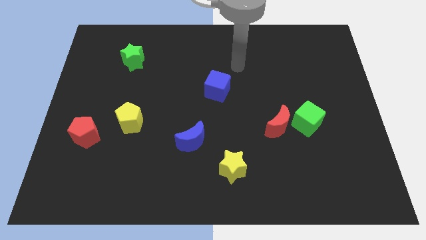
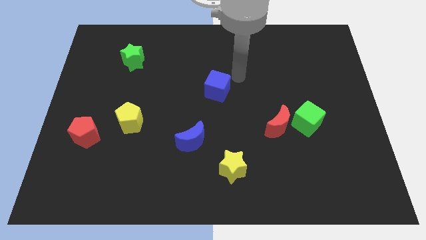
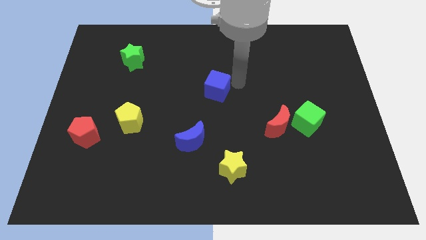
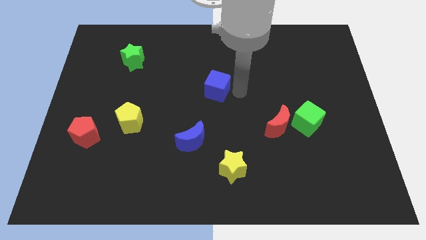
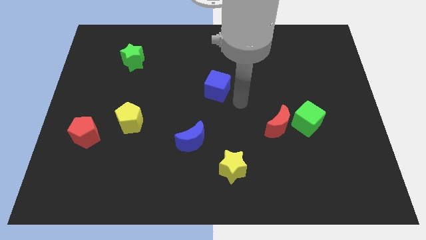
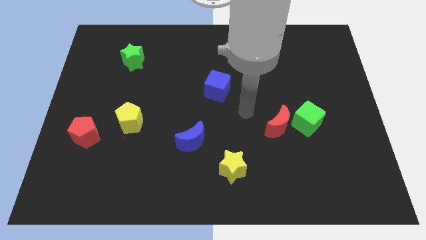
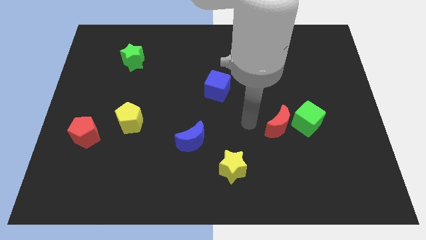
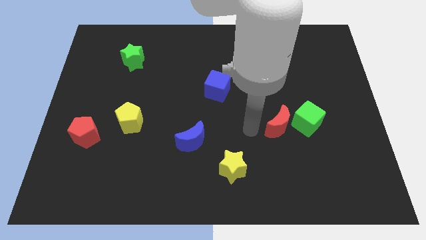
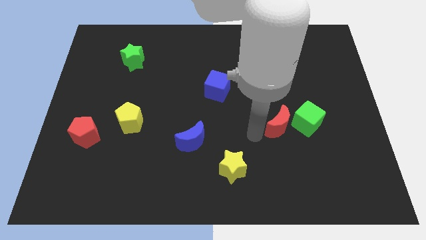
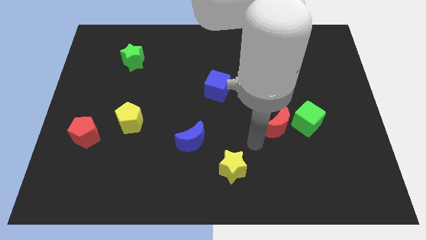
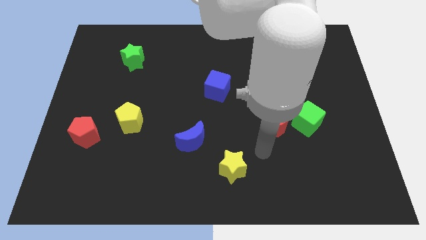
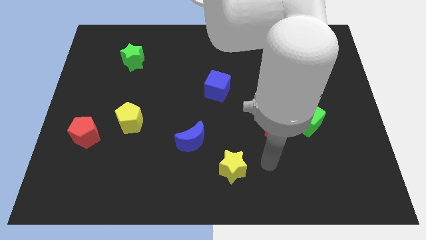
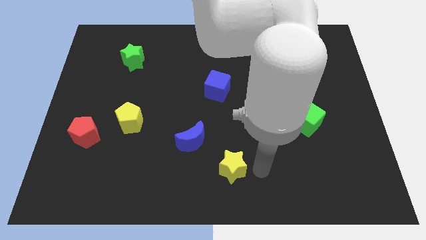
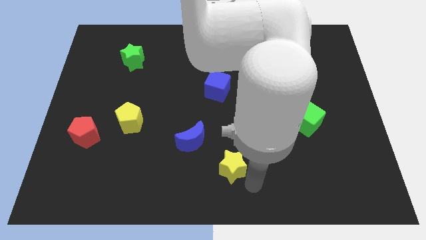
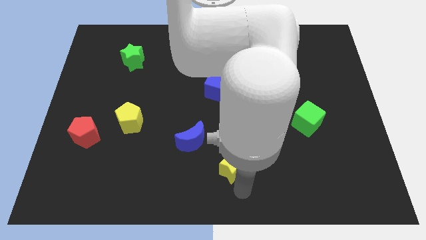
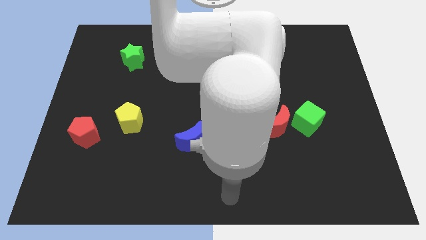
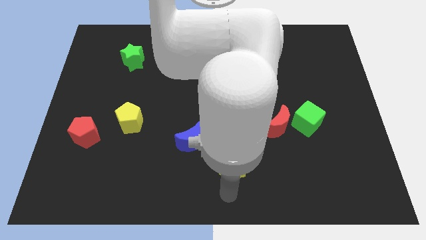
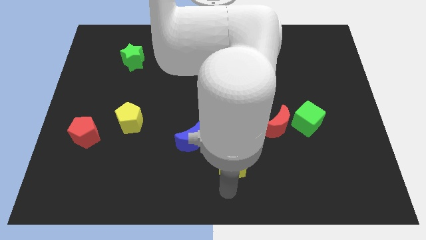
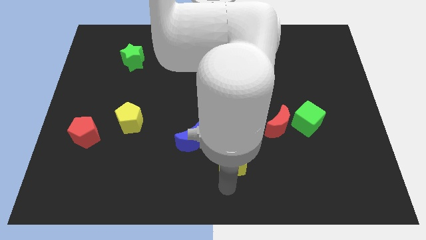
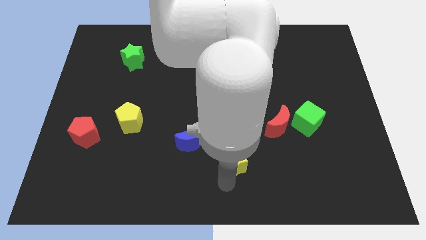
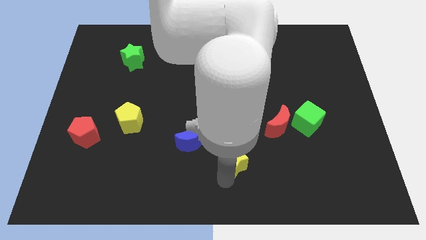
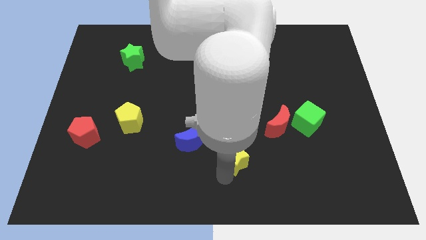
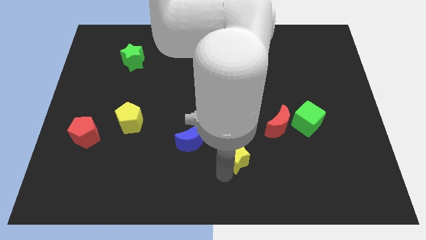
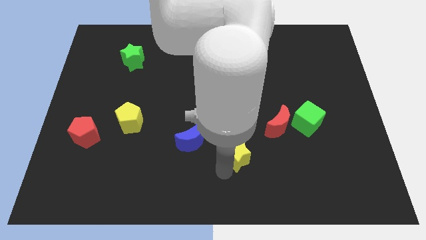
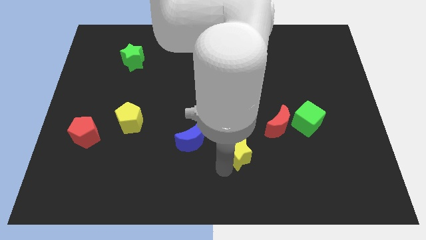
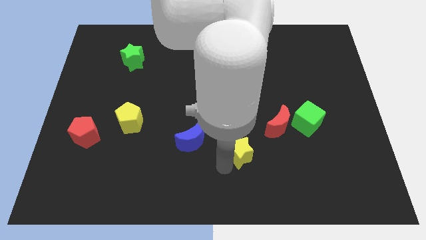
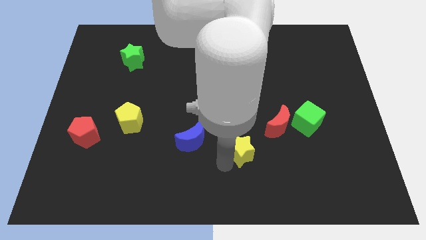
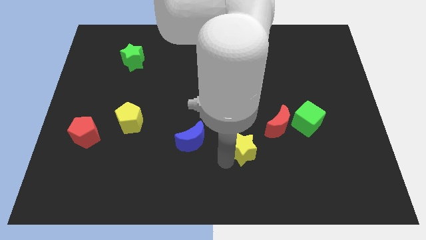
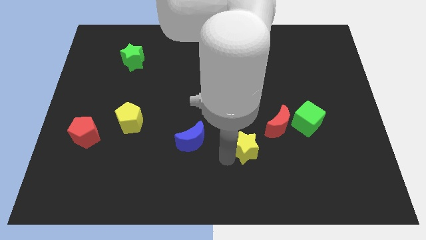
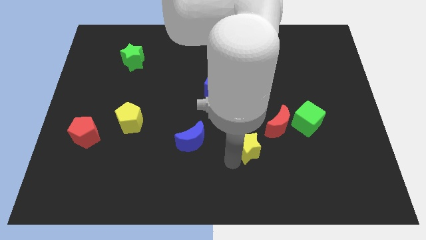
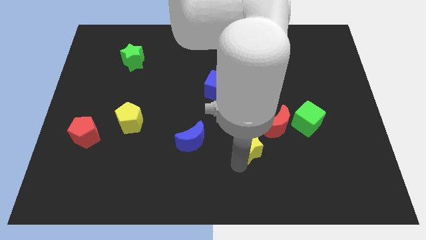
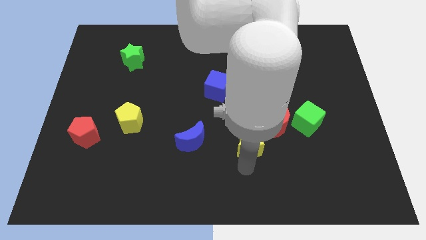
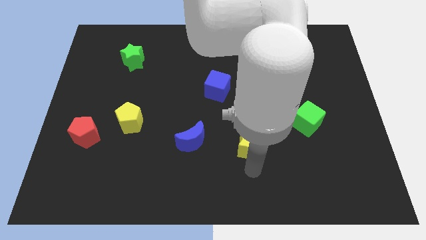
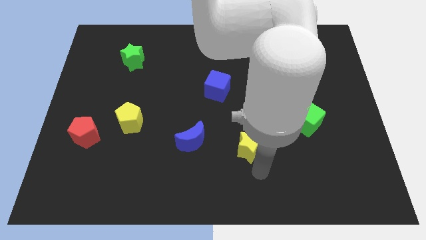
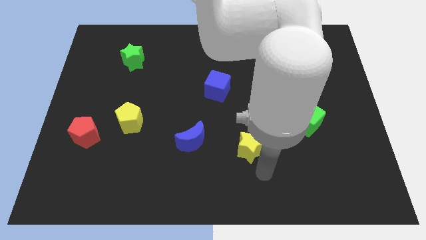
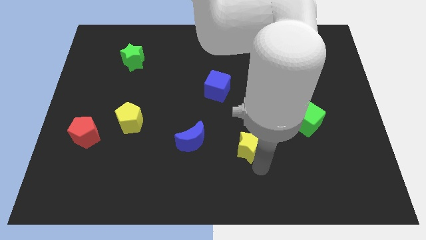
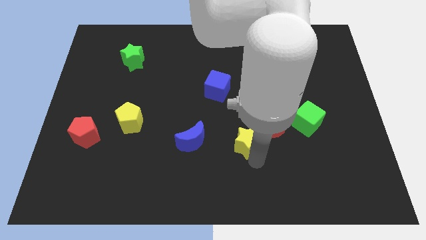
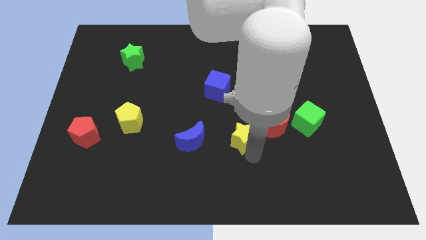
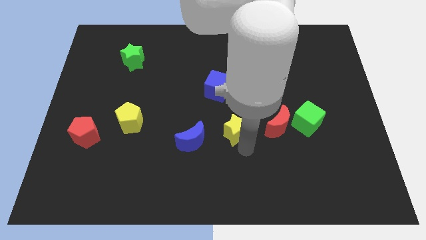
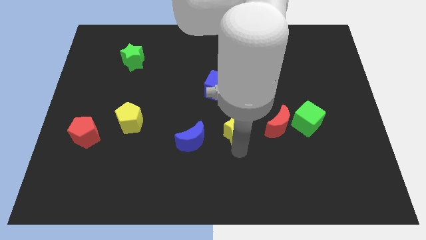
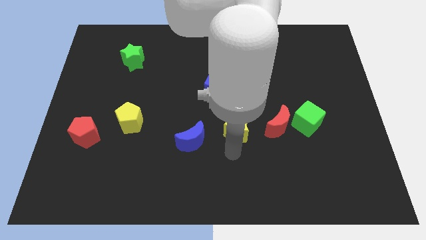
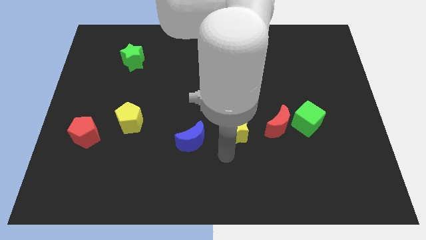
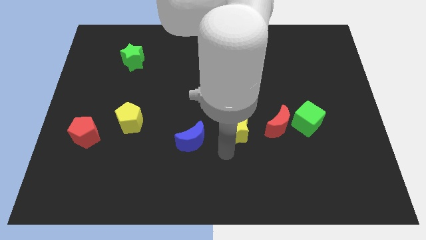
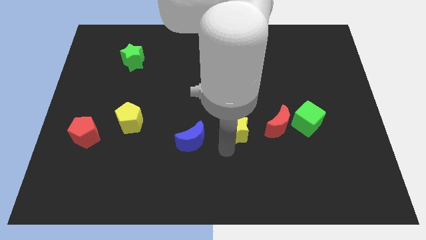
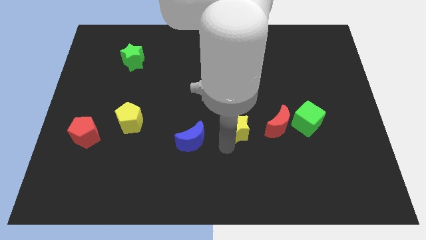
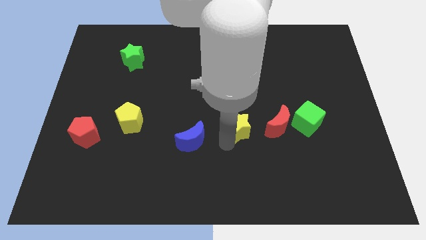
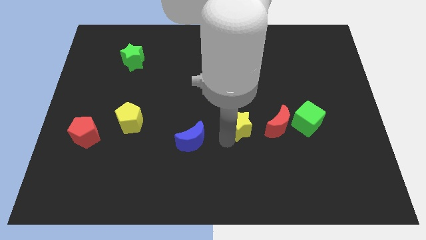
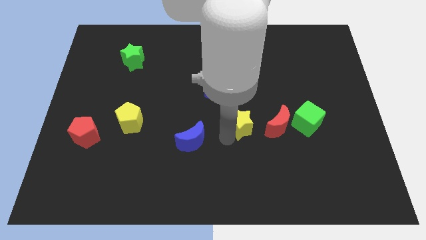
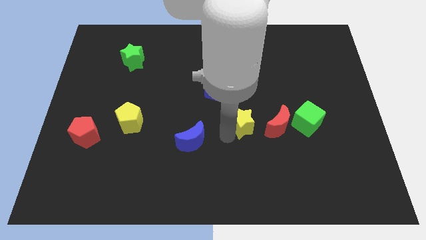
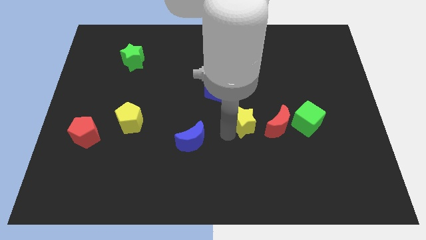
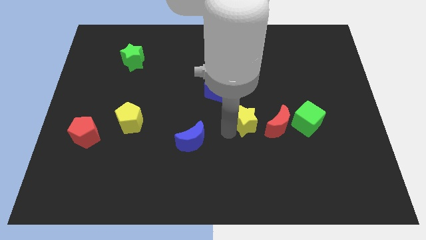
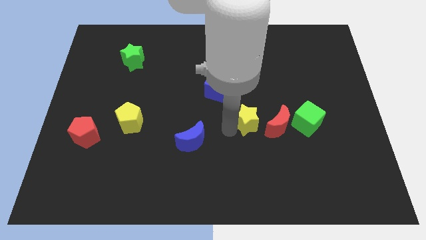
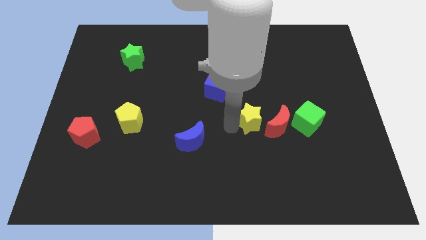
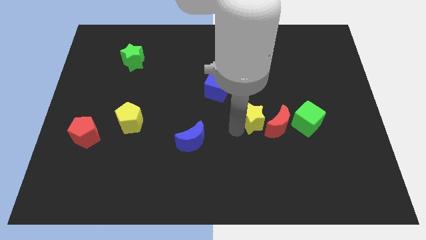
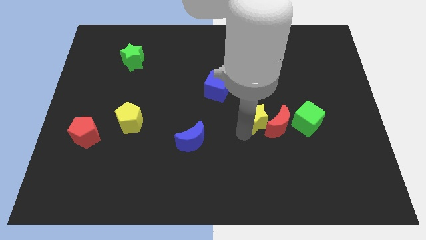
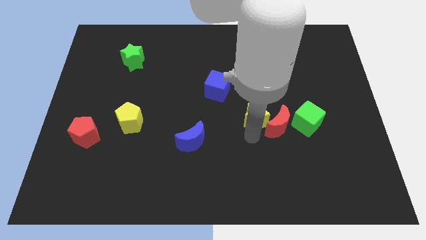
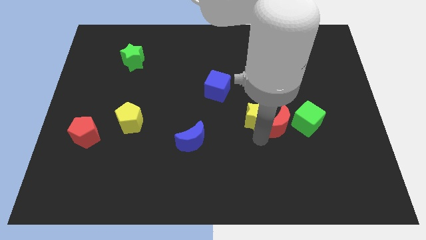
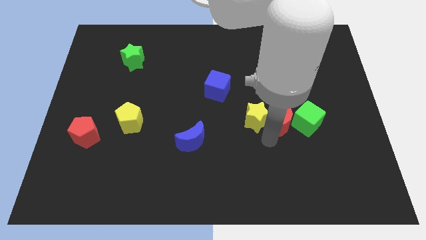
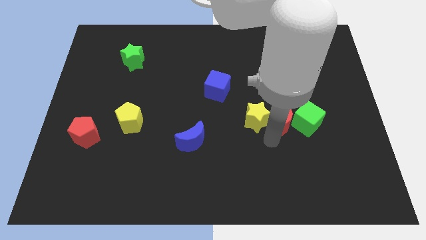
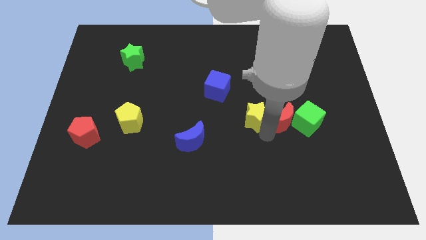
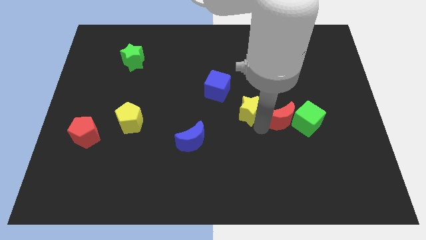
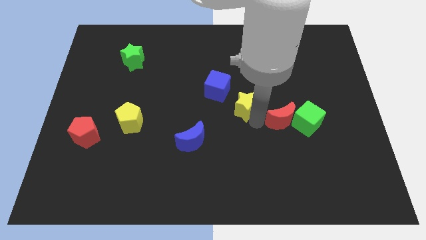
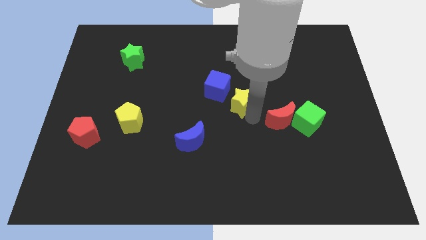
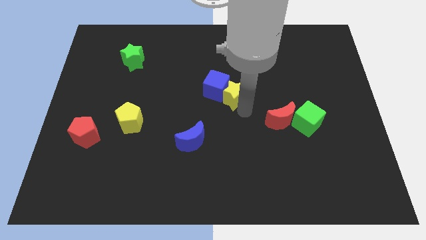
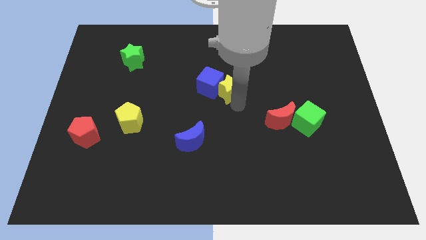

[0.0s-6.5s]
move the yellow star upwards

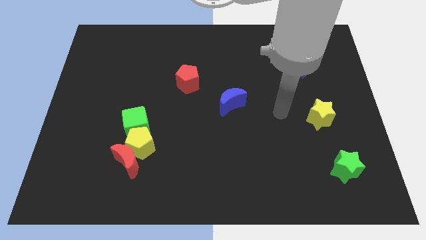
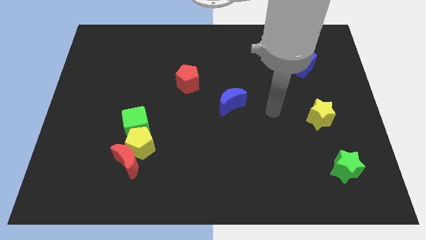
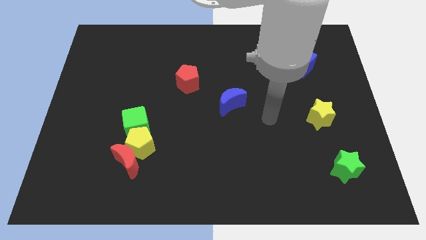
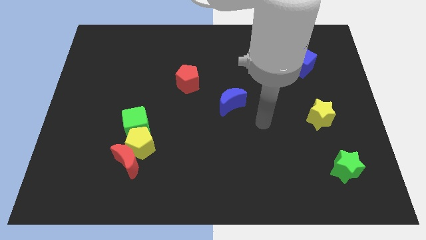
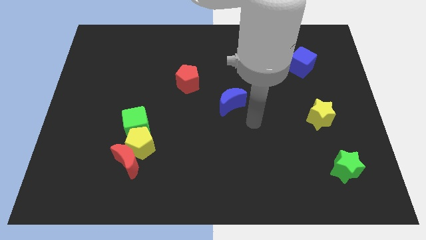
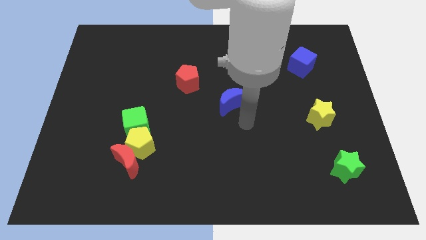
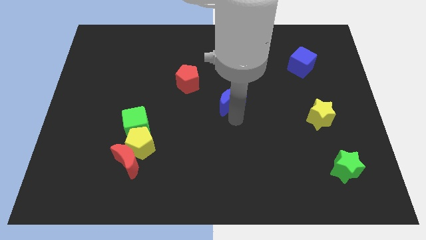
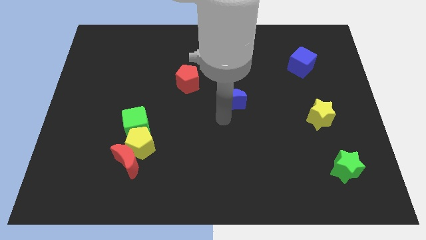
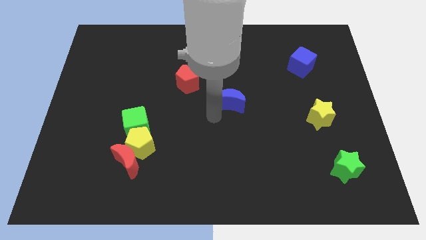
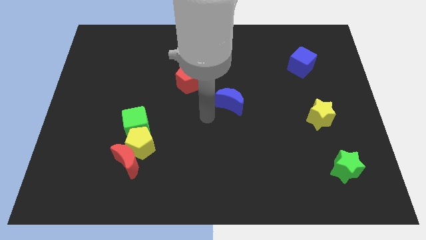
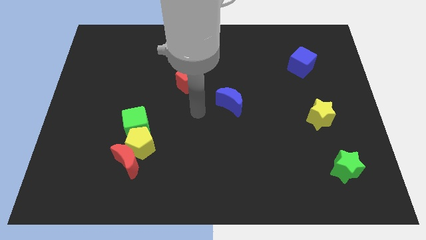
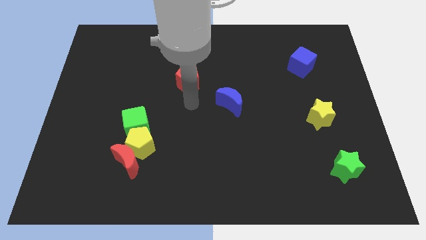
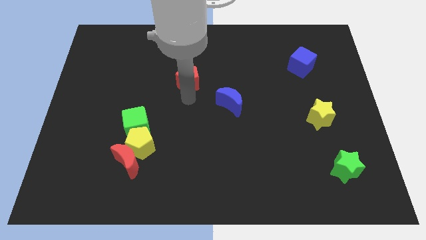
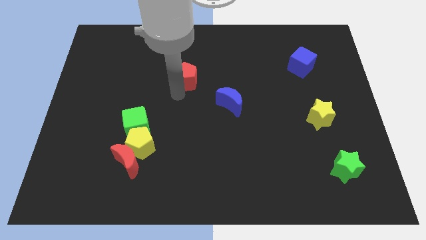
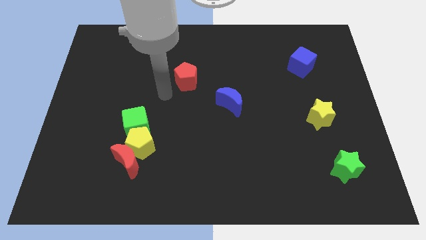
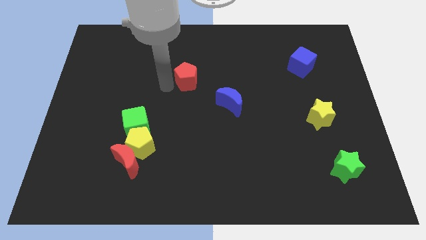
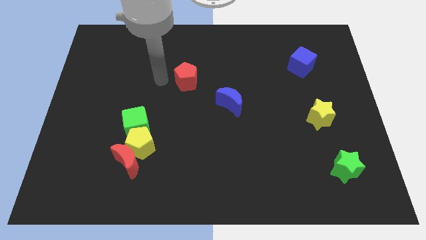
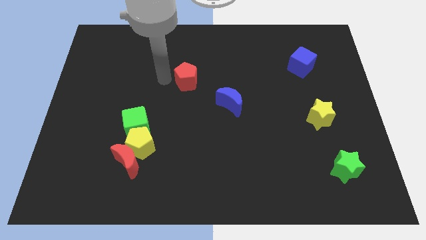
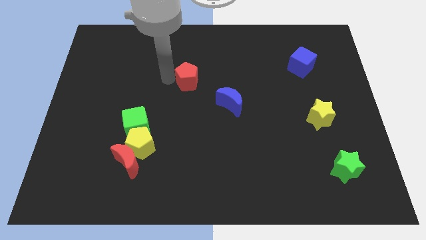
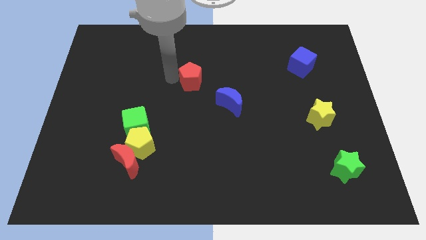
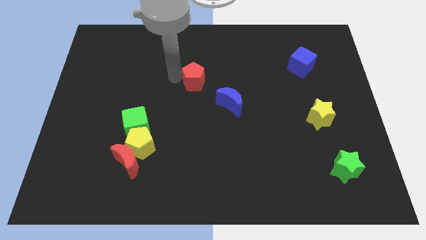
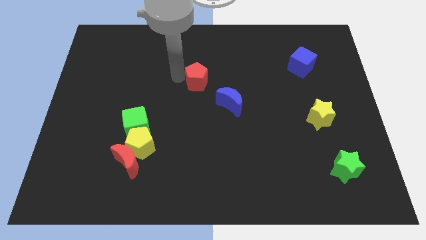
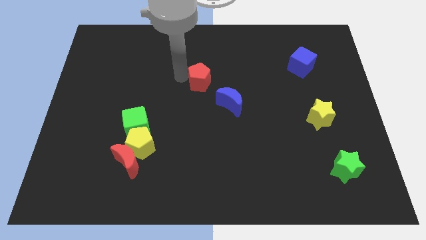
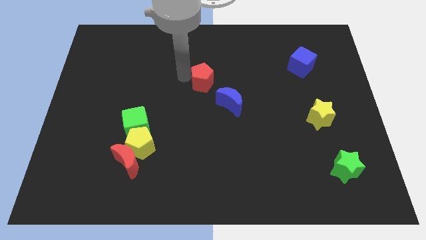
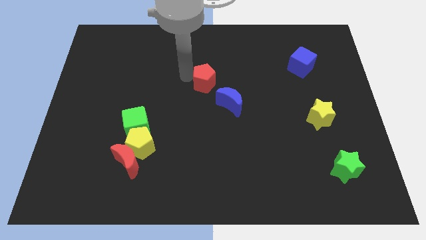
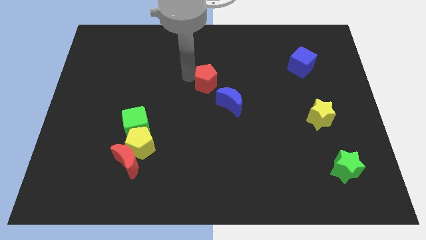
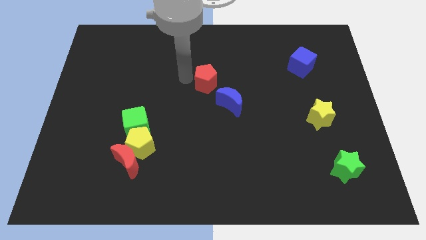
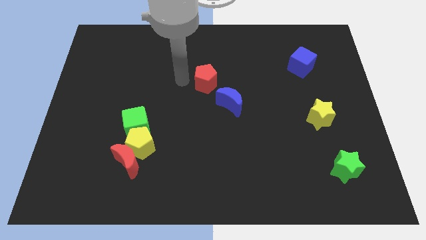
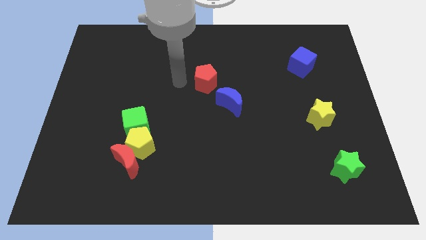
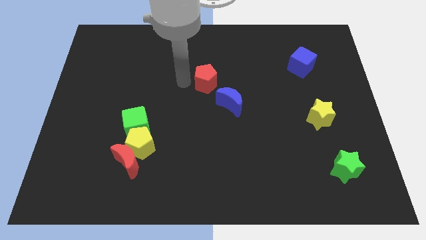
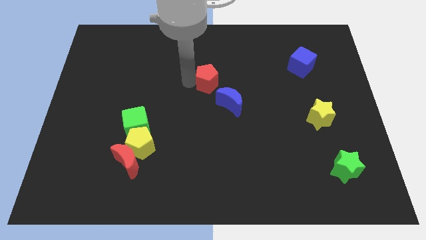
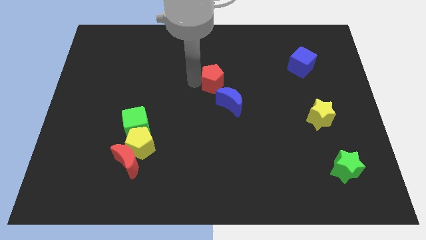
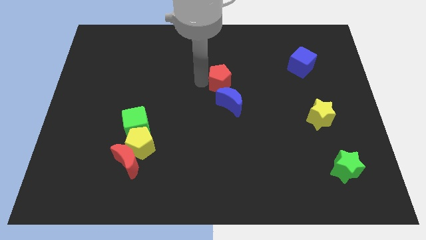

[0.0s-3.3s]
push the red pentagon right a little
